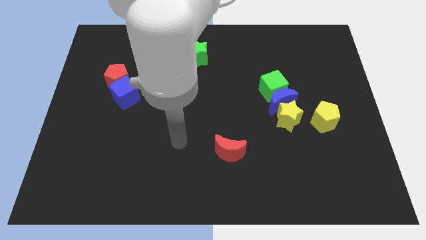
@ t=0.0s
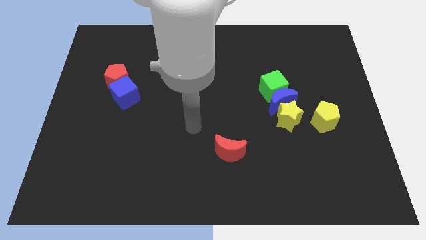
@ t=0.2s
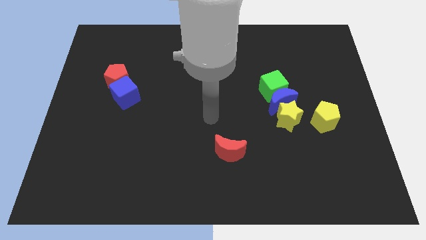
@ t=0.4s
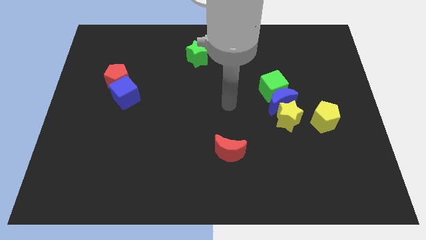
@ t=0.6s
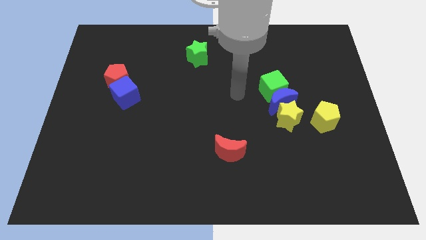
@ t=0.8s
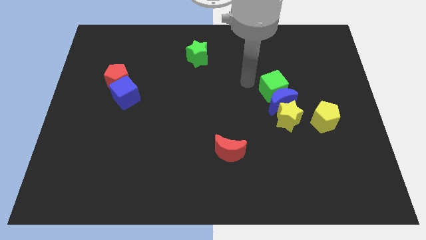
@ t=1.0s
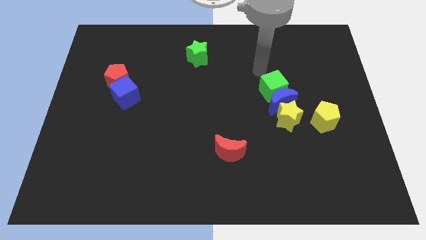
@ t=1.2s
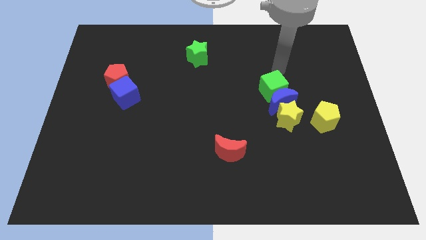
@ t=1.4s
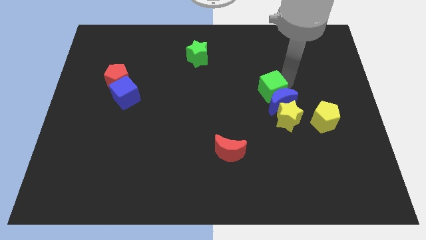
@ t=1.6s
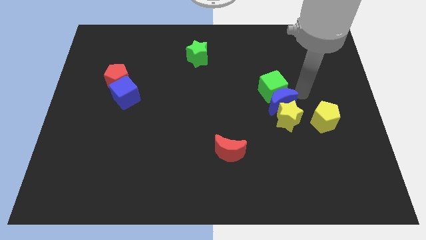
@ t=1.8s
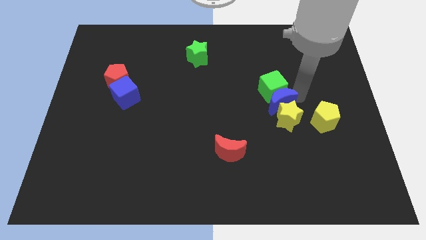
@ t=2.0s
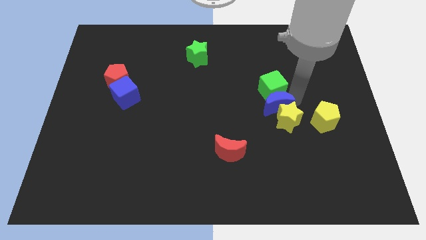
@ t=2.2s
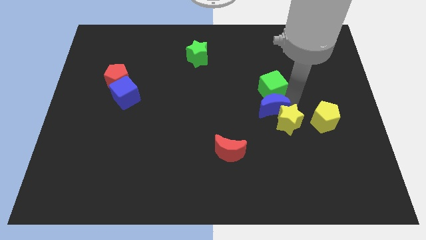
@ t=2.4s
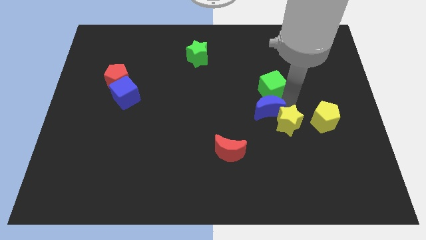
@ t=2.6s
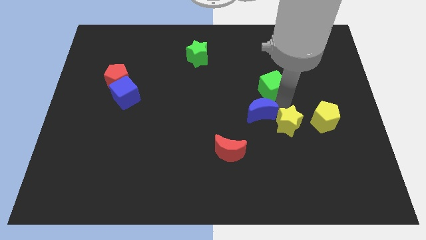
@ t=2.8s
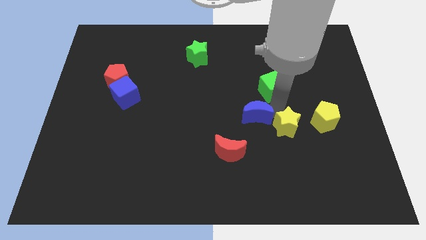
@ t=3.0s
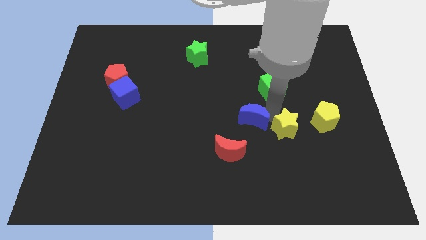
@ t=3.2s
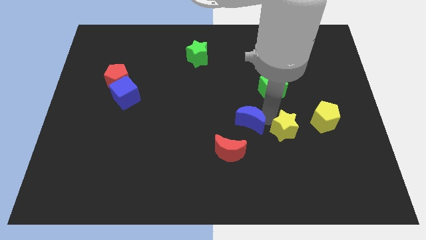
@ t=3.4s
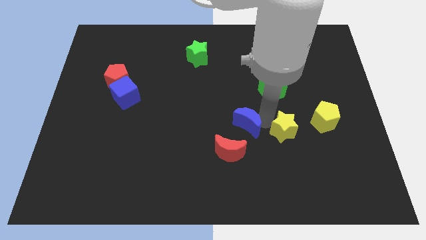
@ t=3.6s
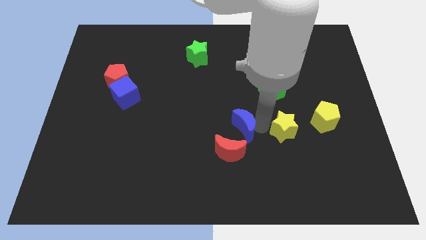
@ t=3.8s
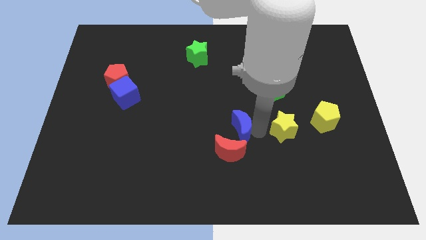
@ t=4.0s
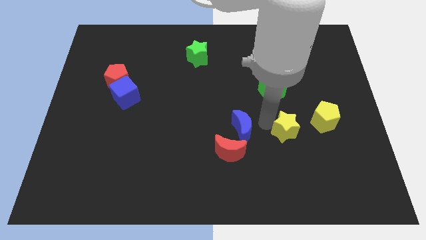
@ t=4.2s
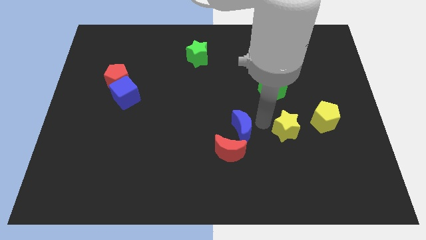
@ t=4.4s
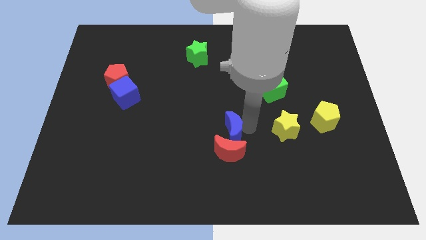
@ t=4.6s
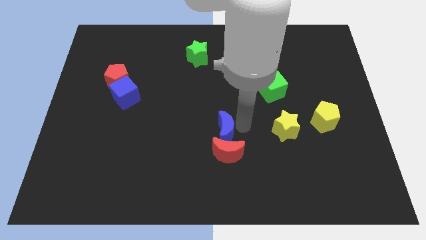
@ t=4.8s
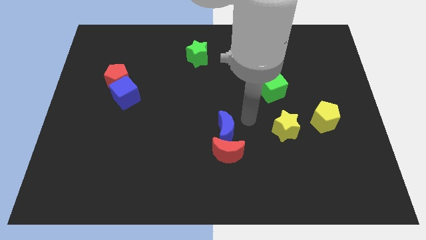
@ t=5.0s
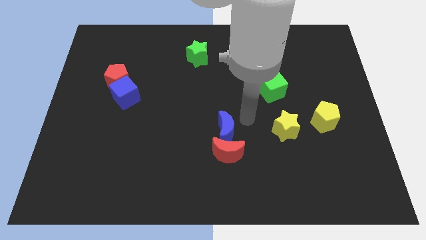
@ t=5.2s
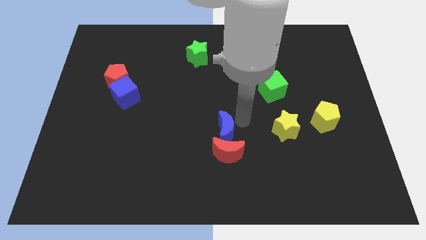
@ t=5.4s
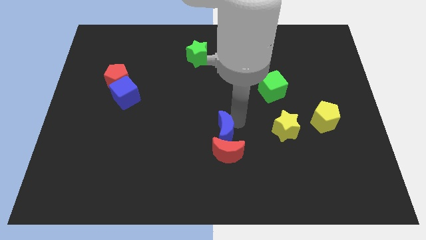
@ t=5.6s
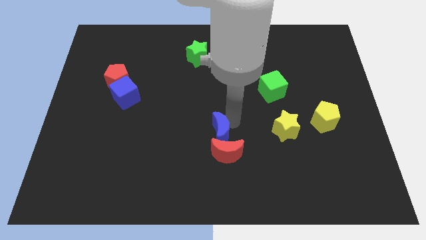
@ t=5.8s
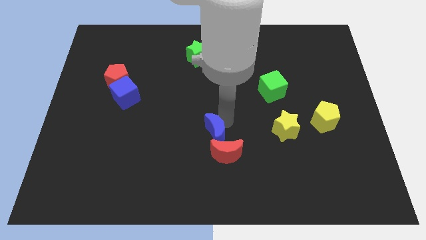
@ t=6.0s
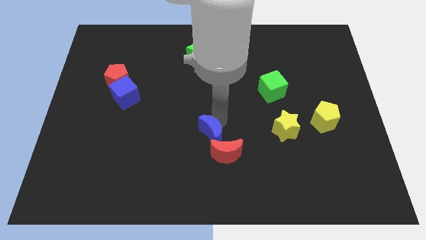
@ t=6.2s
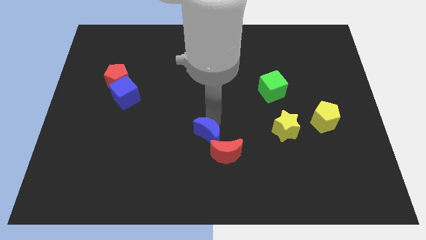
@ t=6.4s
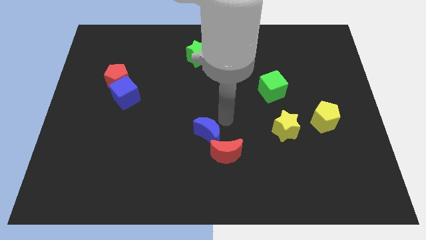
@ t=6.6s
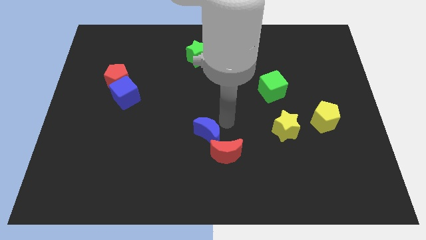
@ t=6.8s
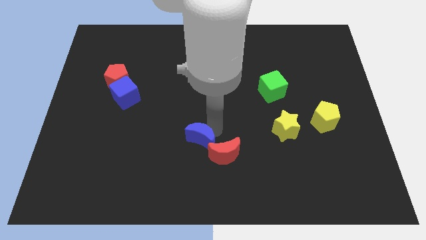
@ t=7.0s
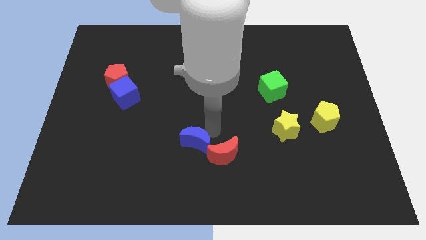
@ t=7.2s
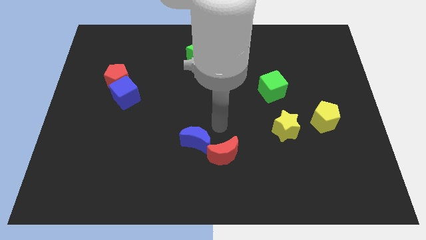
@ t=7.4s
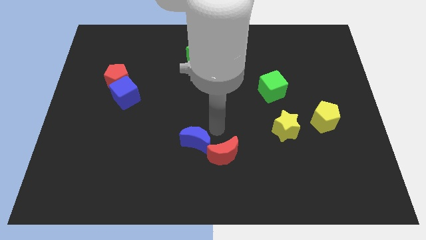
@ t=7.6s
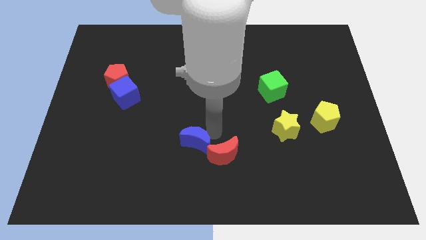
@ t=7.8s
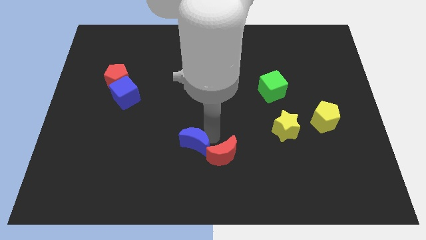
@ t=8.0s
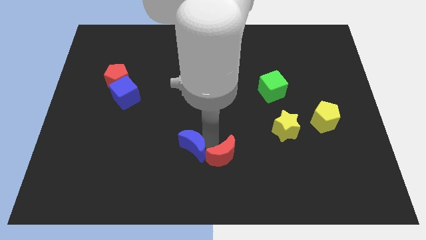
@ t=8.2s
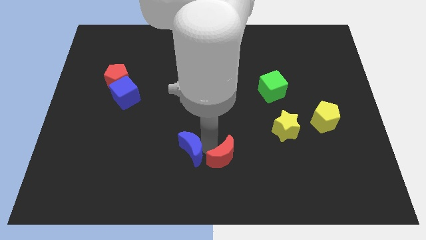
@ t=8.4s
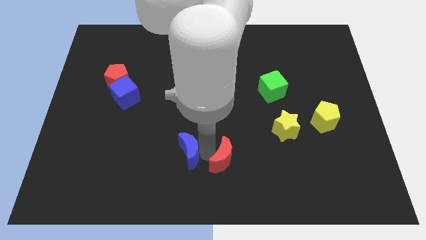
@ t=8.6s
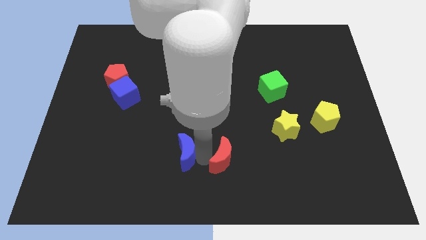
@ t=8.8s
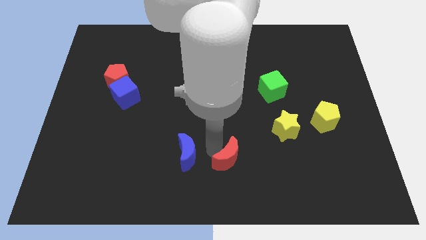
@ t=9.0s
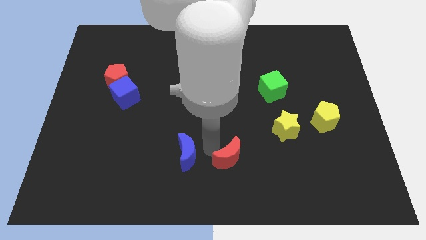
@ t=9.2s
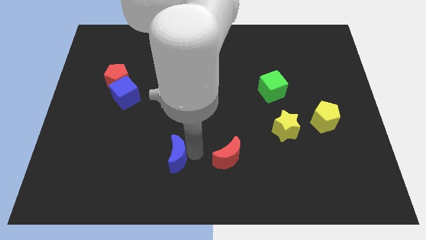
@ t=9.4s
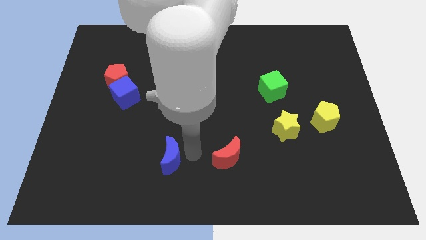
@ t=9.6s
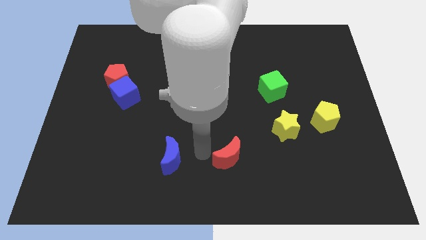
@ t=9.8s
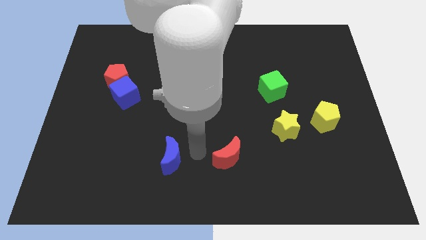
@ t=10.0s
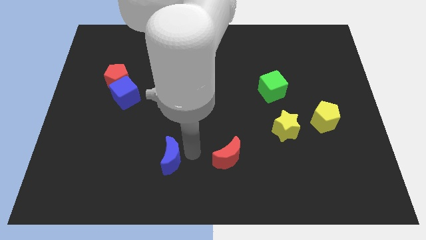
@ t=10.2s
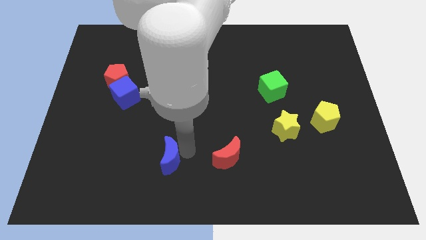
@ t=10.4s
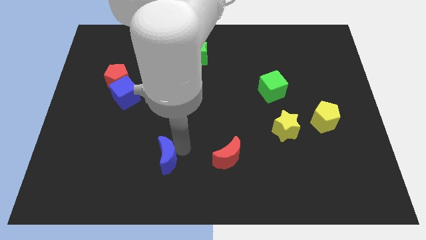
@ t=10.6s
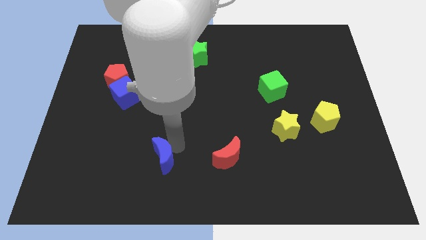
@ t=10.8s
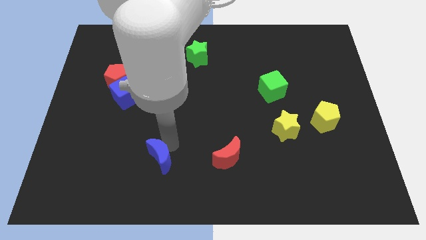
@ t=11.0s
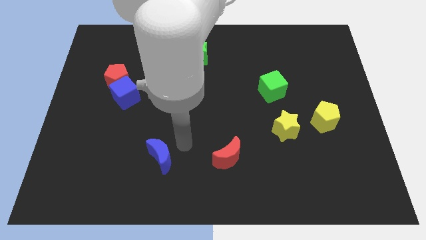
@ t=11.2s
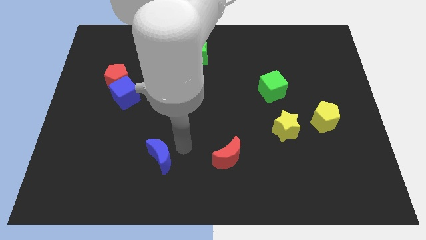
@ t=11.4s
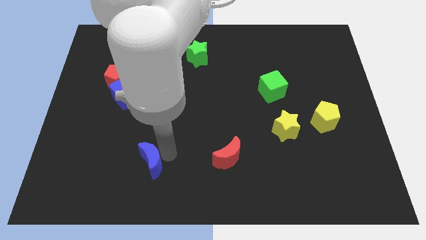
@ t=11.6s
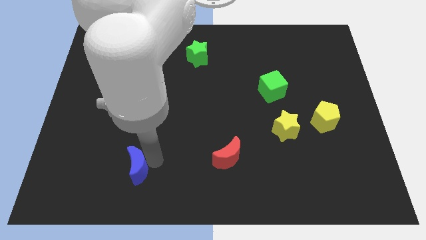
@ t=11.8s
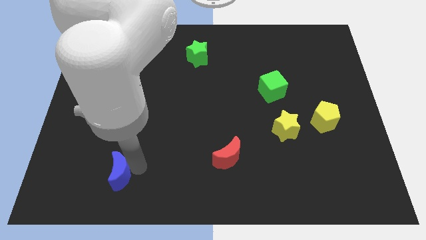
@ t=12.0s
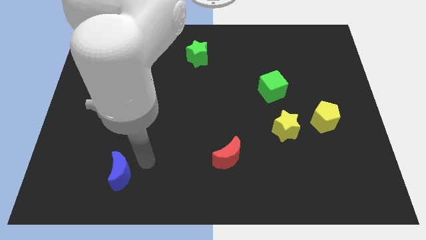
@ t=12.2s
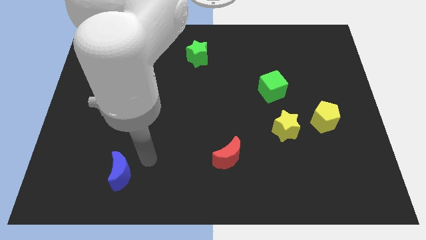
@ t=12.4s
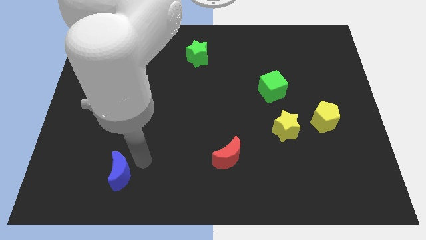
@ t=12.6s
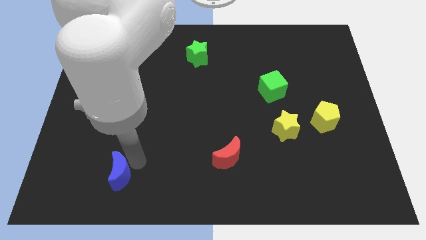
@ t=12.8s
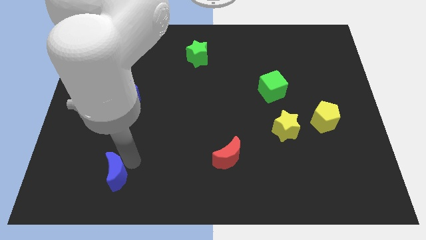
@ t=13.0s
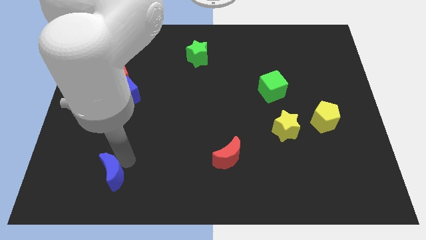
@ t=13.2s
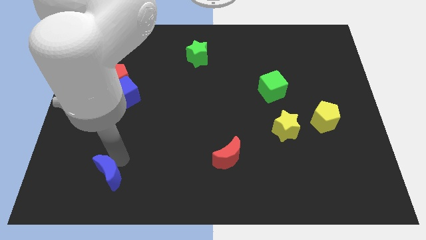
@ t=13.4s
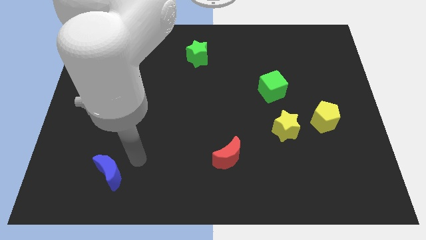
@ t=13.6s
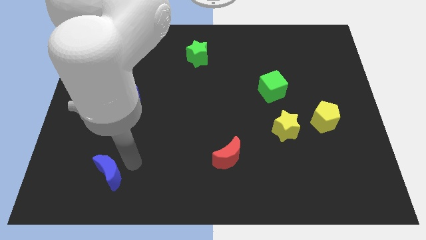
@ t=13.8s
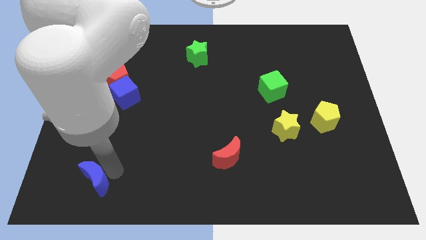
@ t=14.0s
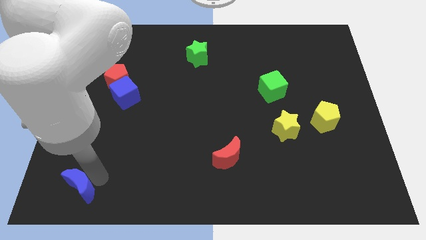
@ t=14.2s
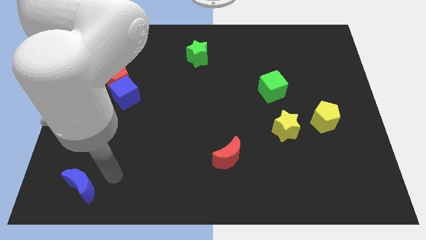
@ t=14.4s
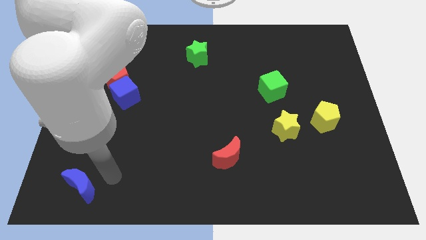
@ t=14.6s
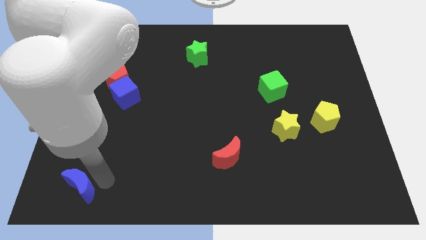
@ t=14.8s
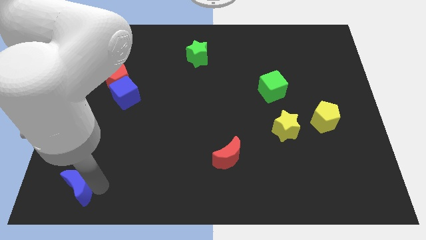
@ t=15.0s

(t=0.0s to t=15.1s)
put the blue moon to the lower left corner
